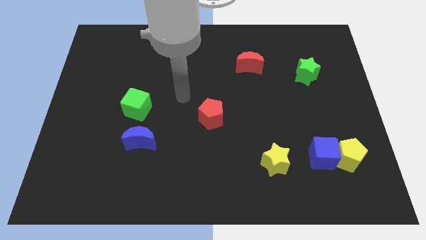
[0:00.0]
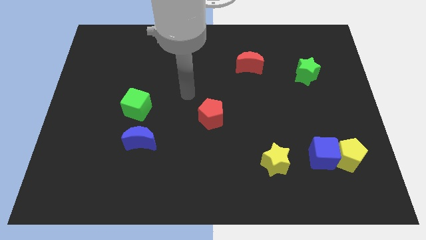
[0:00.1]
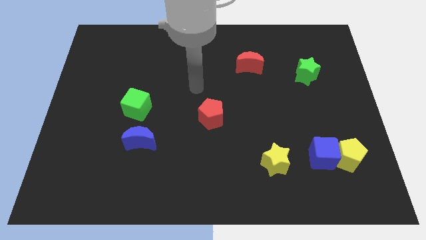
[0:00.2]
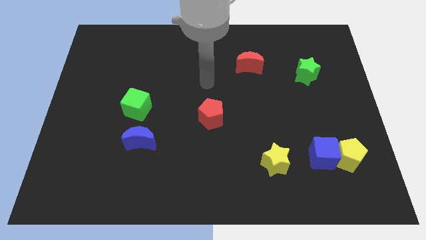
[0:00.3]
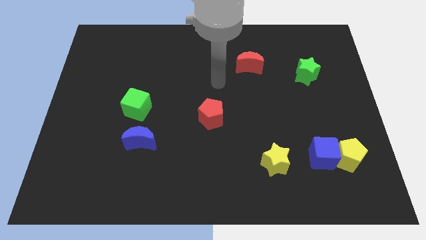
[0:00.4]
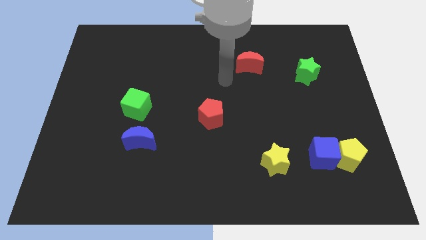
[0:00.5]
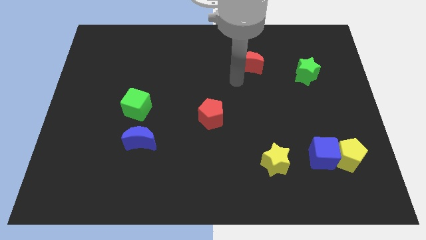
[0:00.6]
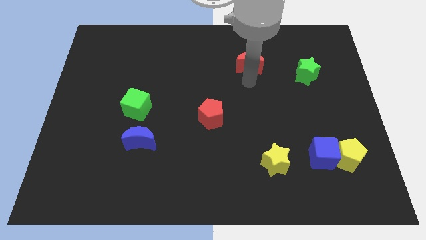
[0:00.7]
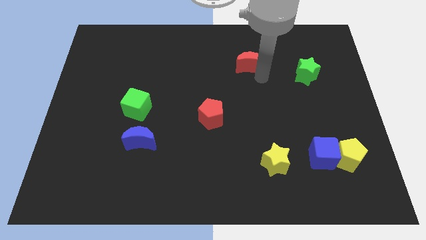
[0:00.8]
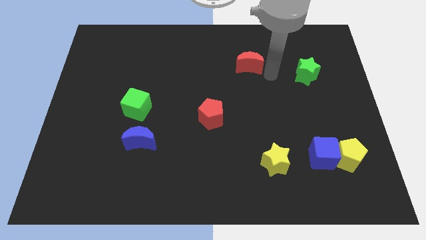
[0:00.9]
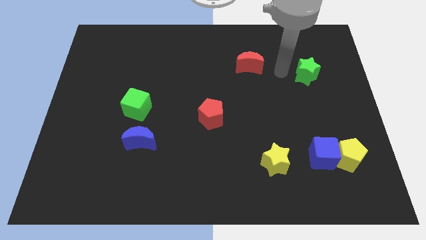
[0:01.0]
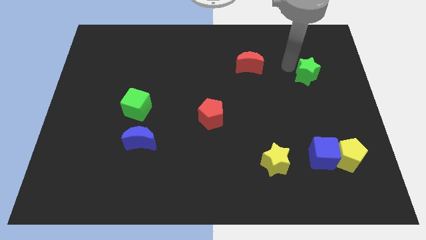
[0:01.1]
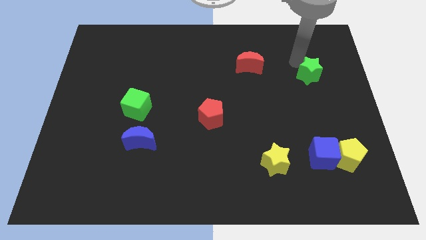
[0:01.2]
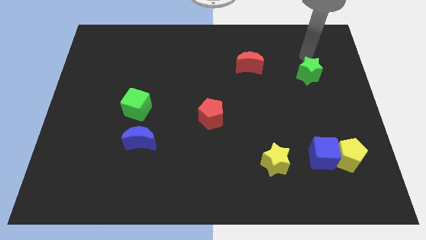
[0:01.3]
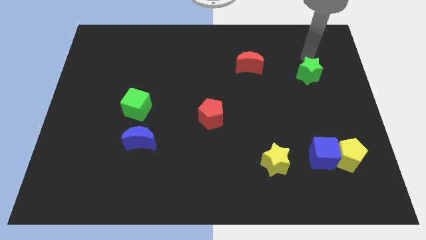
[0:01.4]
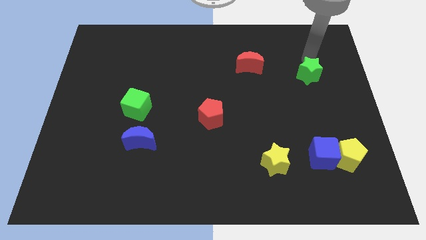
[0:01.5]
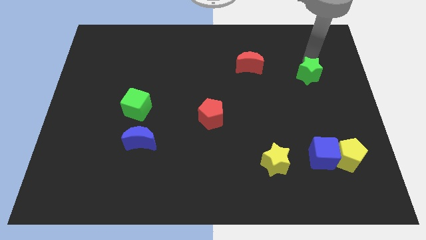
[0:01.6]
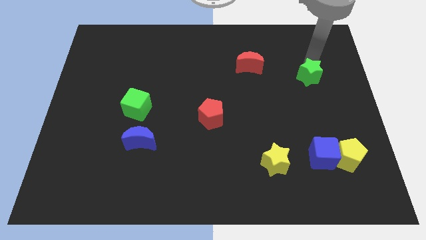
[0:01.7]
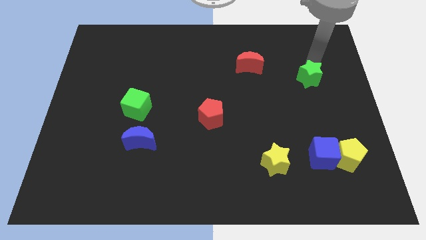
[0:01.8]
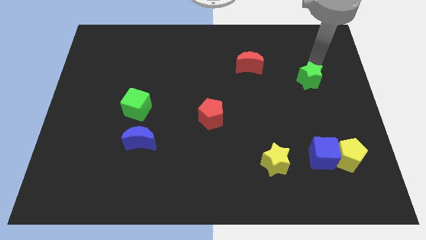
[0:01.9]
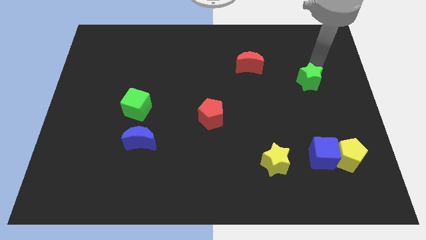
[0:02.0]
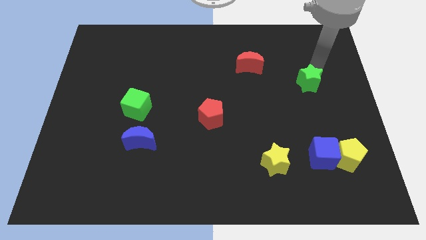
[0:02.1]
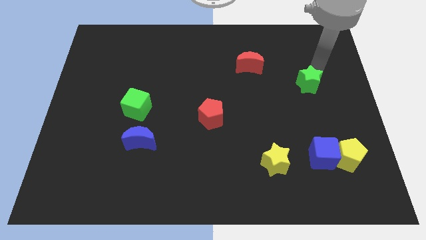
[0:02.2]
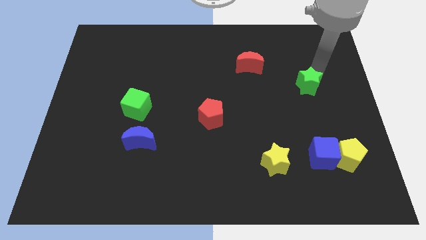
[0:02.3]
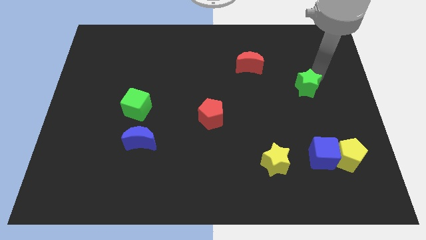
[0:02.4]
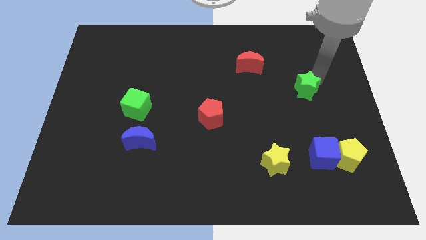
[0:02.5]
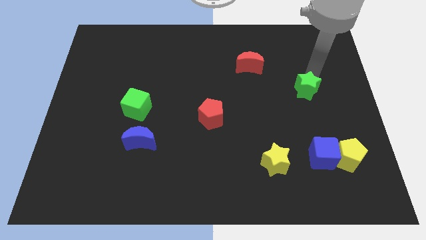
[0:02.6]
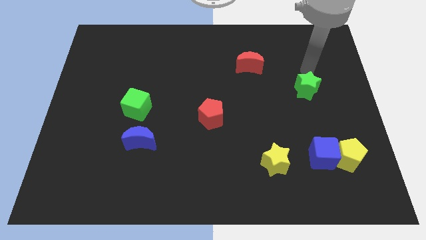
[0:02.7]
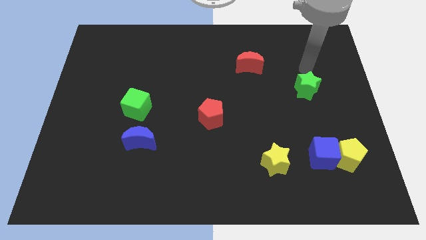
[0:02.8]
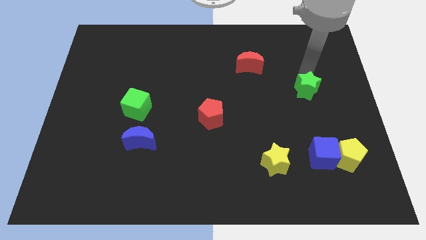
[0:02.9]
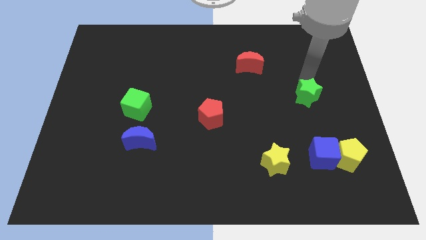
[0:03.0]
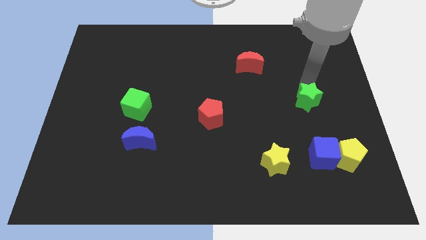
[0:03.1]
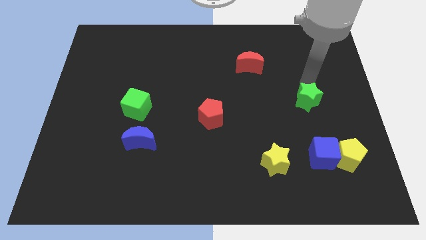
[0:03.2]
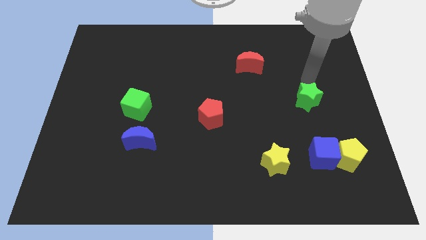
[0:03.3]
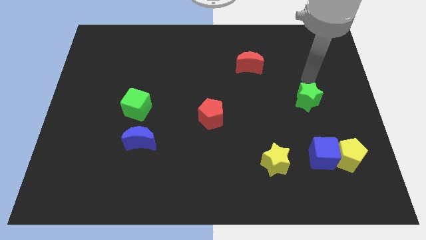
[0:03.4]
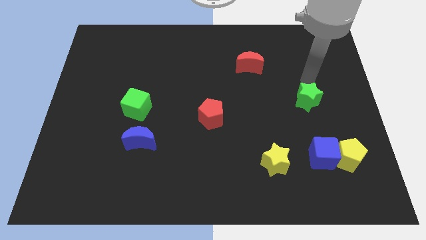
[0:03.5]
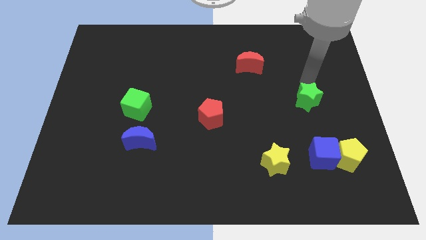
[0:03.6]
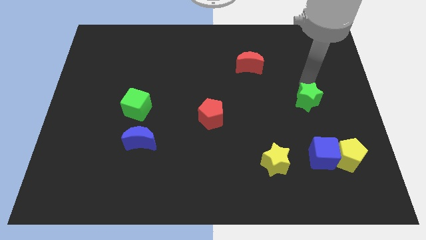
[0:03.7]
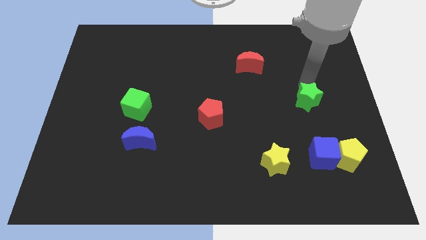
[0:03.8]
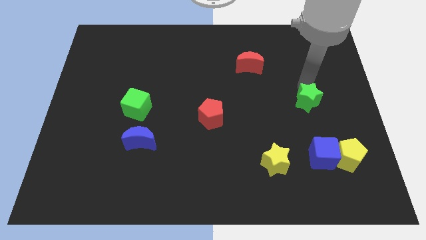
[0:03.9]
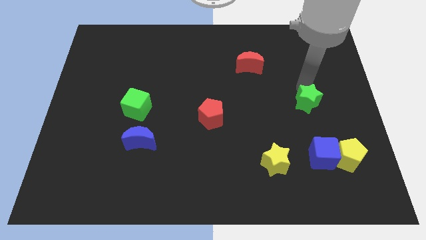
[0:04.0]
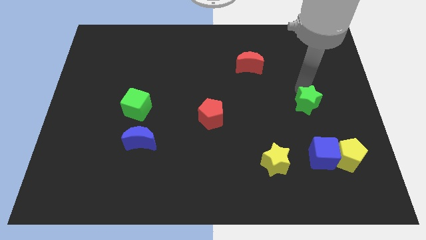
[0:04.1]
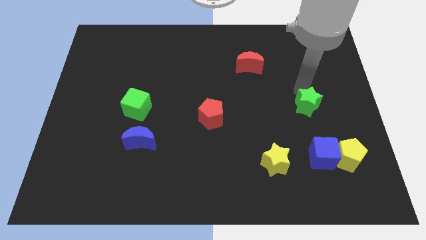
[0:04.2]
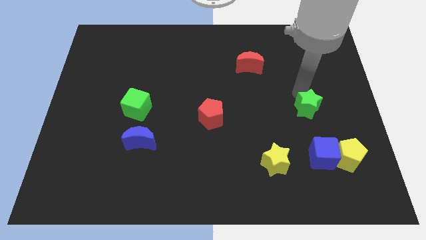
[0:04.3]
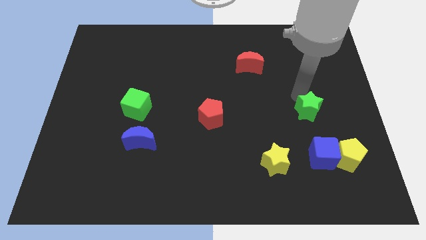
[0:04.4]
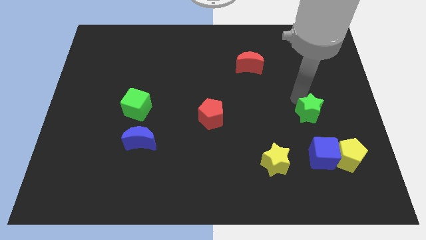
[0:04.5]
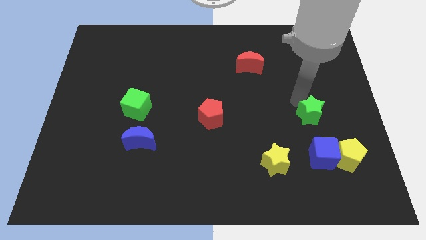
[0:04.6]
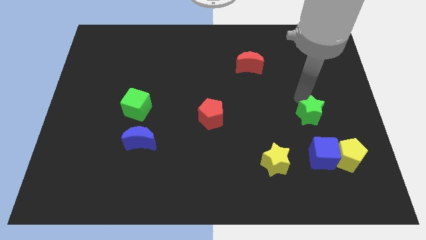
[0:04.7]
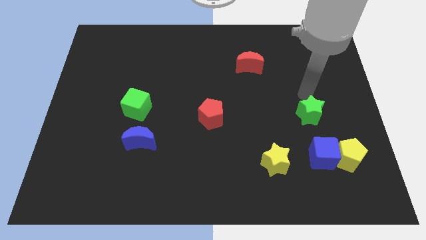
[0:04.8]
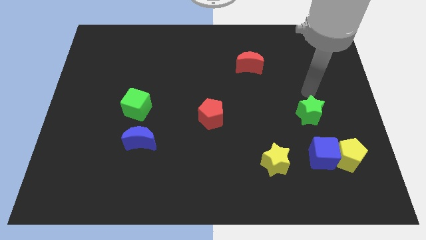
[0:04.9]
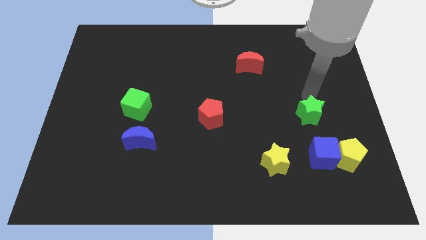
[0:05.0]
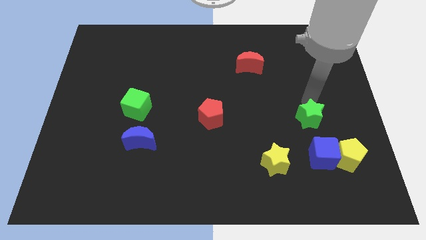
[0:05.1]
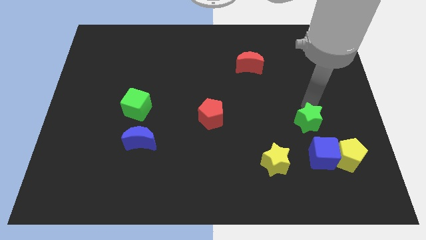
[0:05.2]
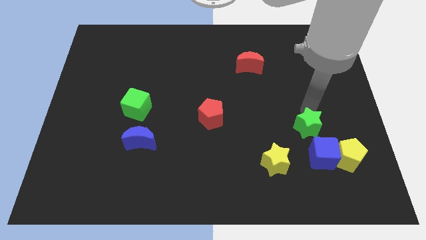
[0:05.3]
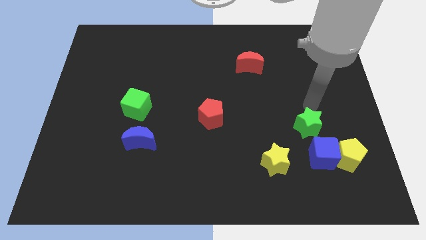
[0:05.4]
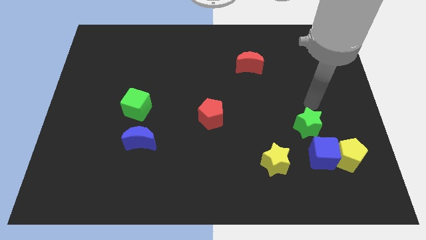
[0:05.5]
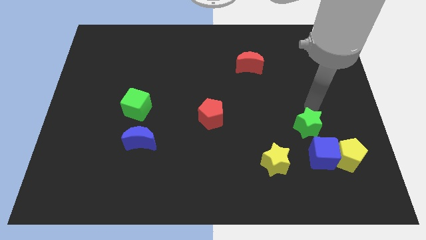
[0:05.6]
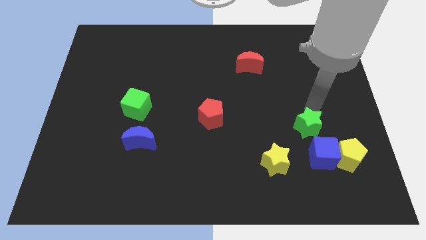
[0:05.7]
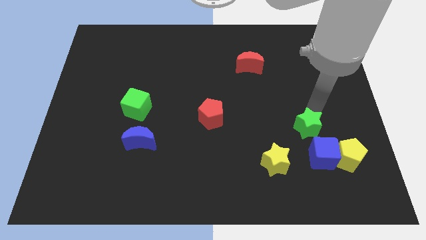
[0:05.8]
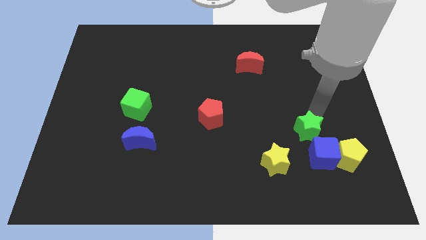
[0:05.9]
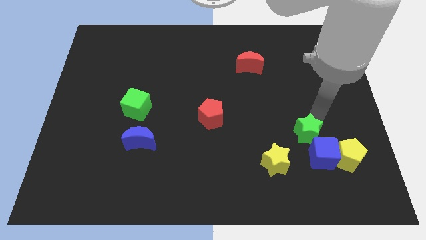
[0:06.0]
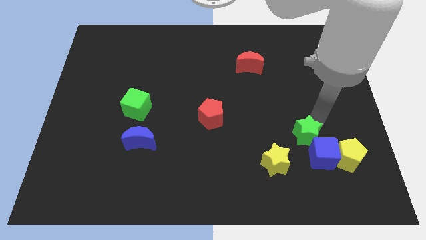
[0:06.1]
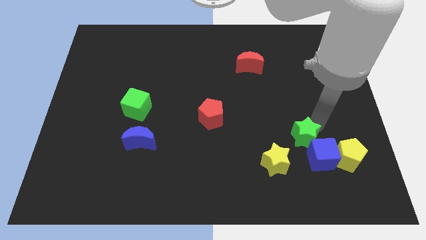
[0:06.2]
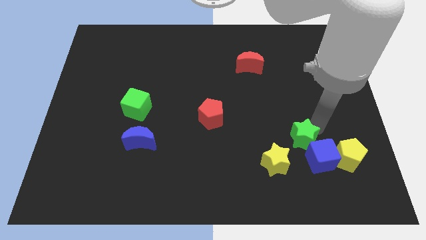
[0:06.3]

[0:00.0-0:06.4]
slide the green star just left of the yellow pentagon
